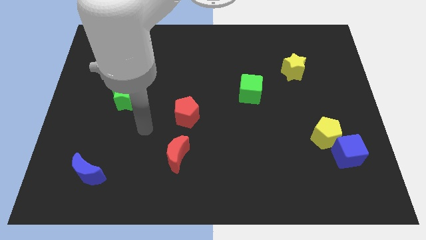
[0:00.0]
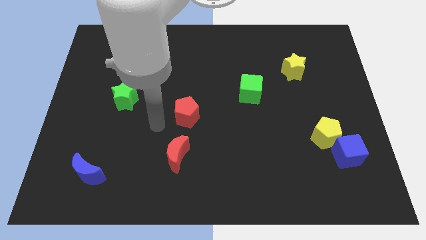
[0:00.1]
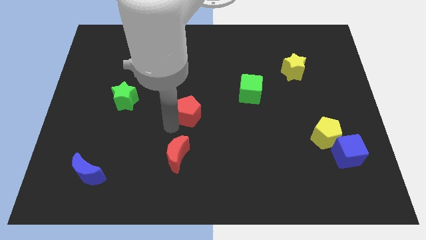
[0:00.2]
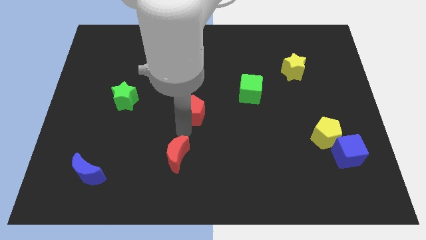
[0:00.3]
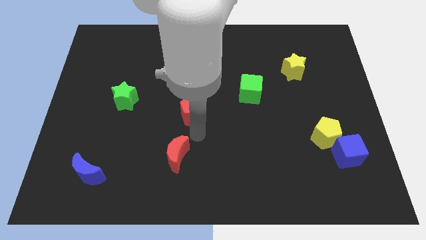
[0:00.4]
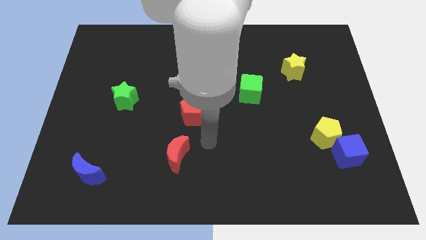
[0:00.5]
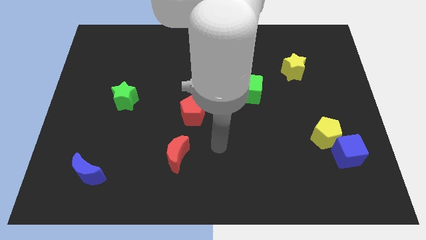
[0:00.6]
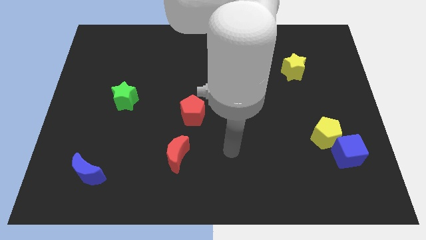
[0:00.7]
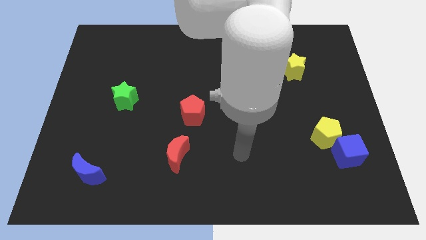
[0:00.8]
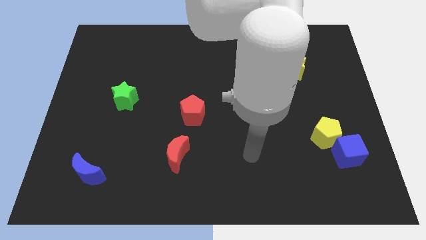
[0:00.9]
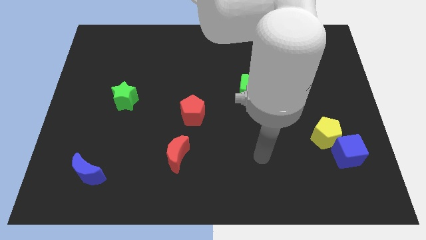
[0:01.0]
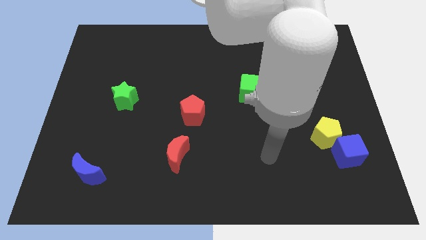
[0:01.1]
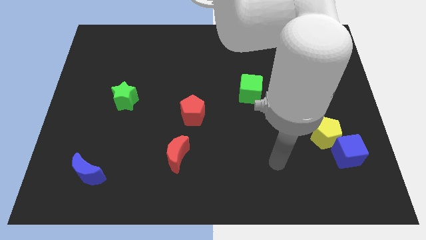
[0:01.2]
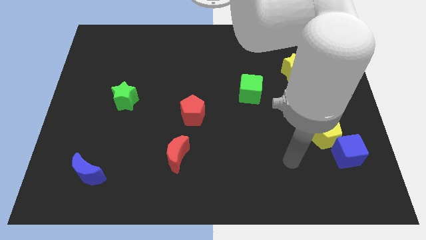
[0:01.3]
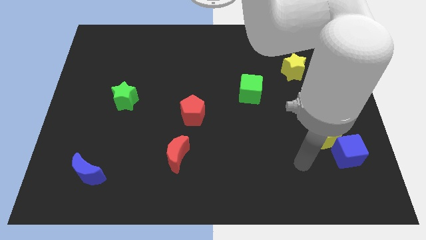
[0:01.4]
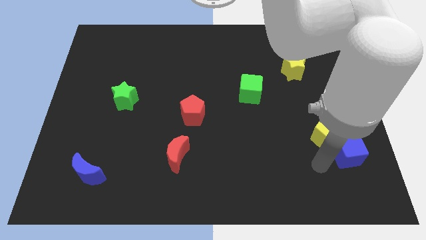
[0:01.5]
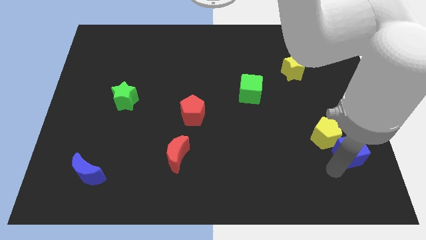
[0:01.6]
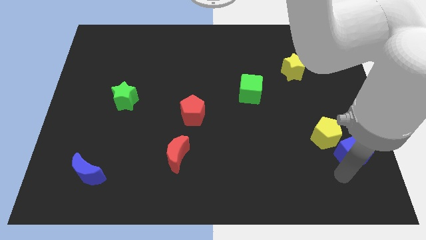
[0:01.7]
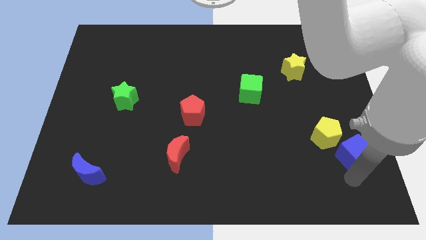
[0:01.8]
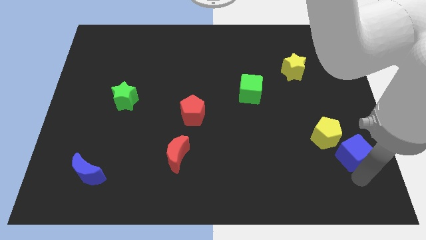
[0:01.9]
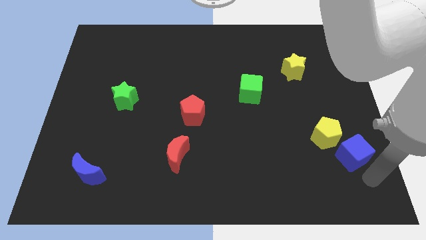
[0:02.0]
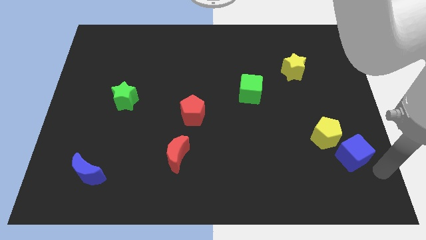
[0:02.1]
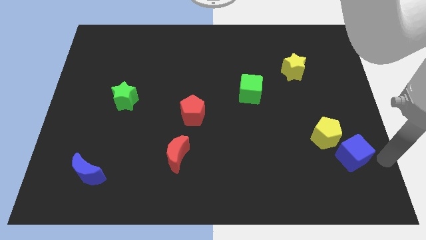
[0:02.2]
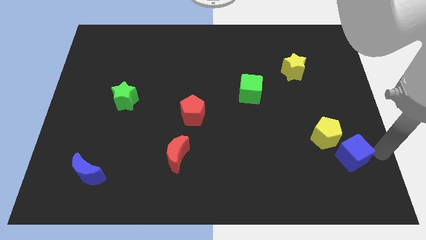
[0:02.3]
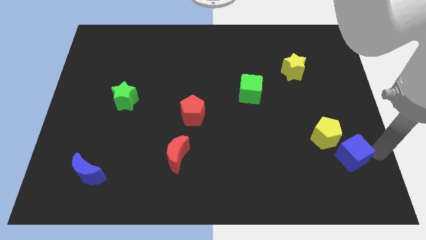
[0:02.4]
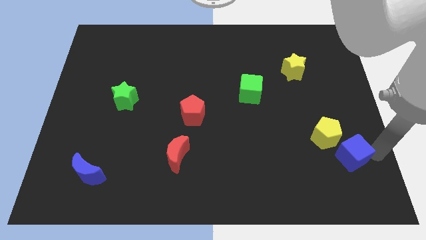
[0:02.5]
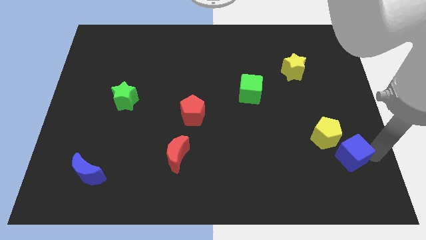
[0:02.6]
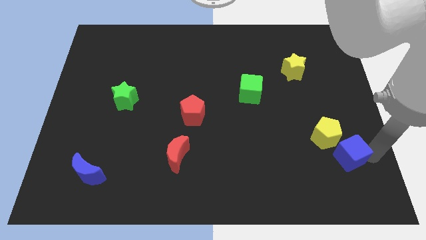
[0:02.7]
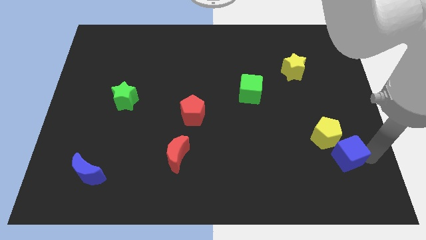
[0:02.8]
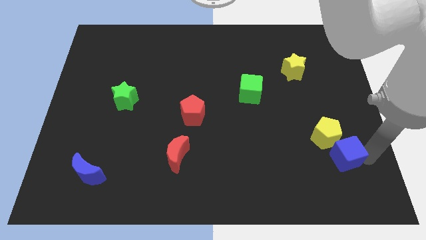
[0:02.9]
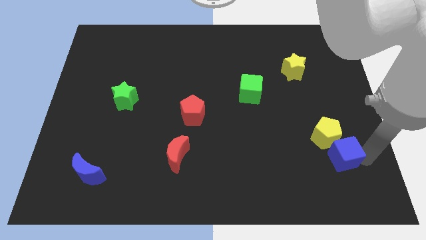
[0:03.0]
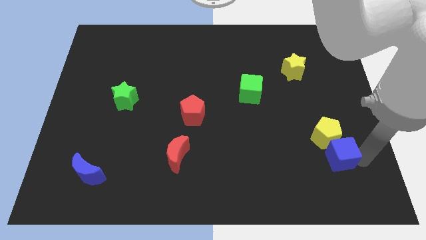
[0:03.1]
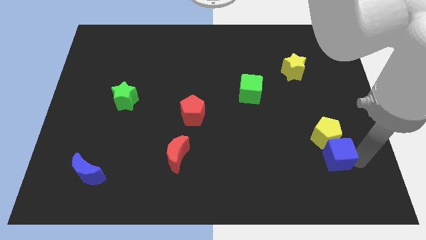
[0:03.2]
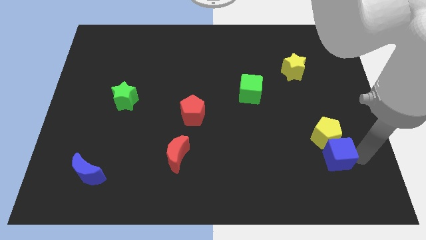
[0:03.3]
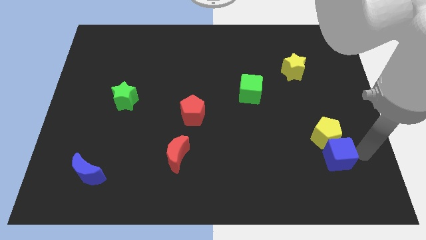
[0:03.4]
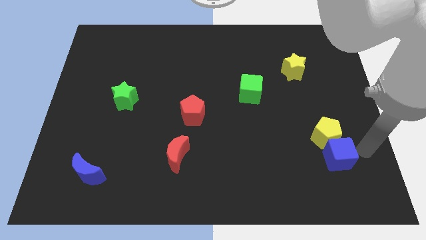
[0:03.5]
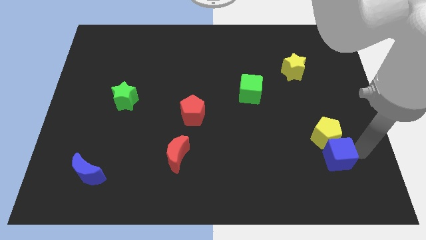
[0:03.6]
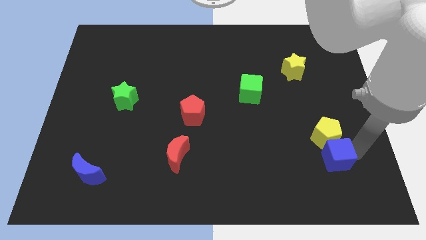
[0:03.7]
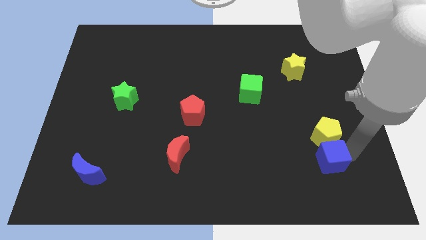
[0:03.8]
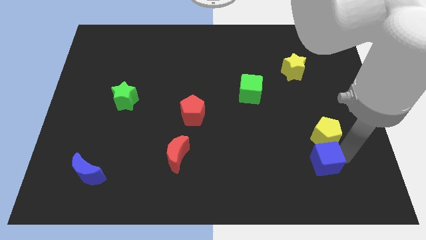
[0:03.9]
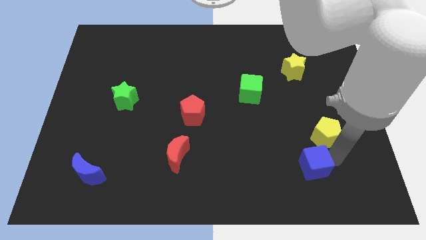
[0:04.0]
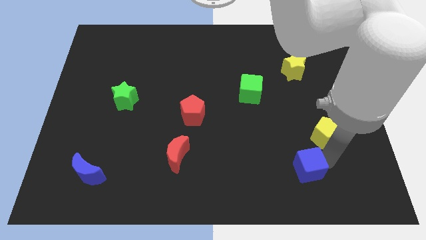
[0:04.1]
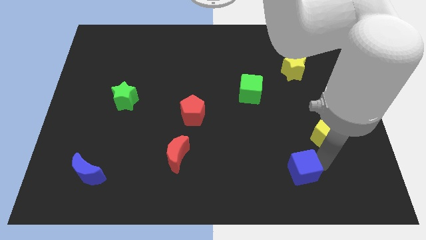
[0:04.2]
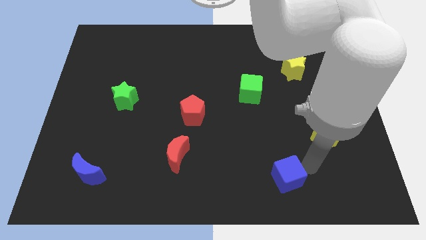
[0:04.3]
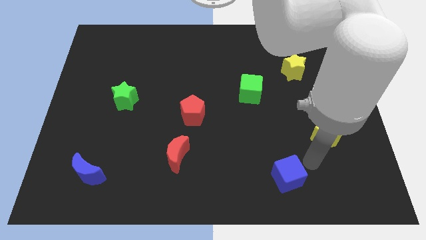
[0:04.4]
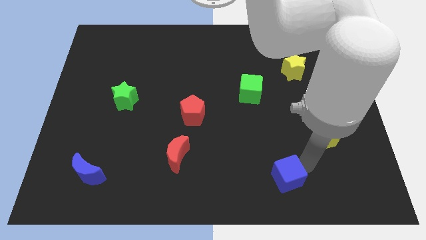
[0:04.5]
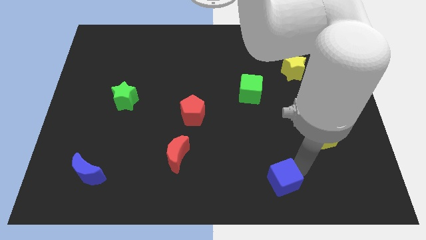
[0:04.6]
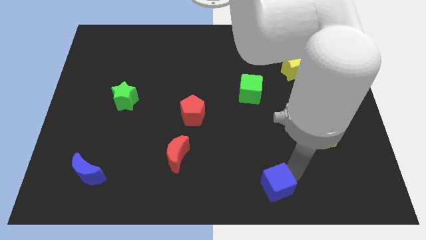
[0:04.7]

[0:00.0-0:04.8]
push the blue cube to the bottom side

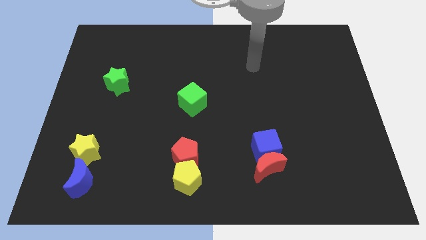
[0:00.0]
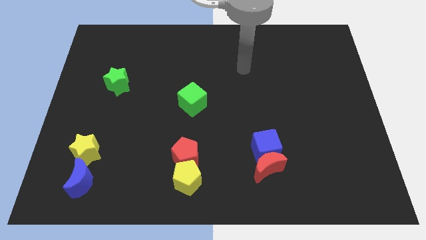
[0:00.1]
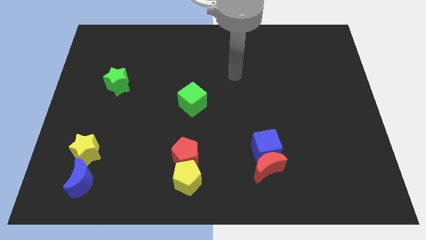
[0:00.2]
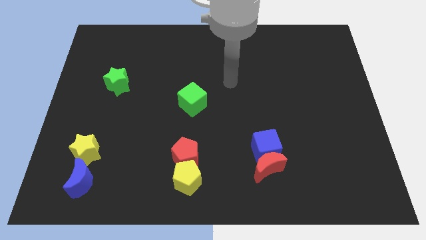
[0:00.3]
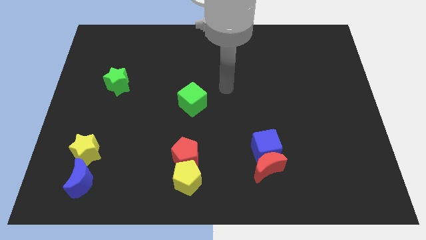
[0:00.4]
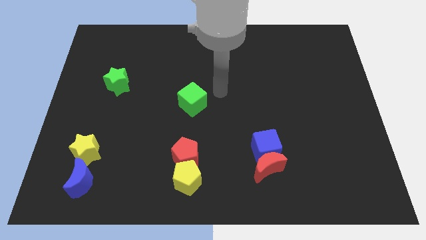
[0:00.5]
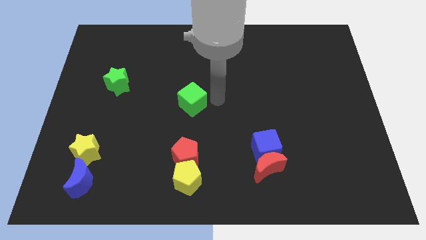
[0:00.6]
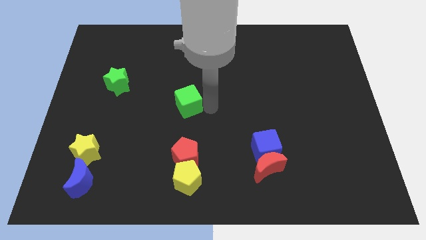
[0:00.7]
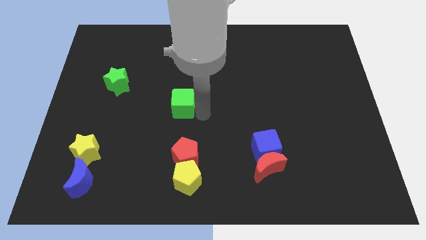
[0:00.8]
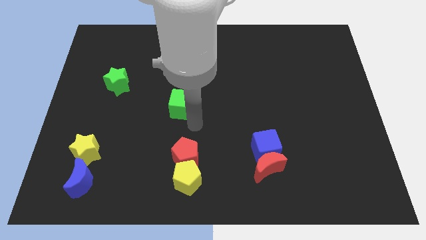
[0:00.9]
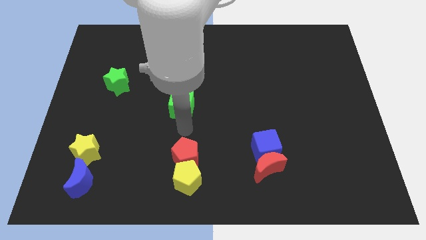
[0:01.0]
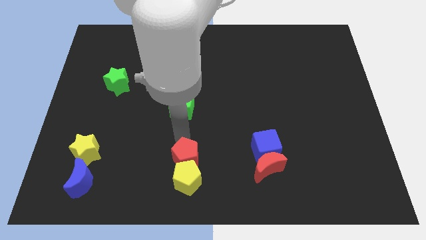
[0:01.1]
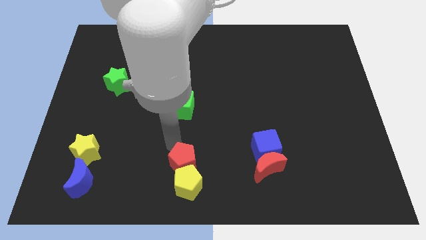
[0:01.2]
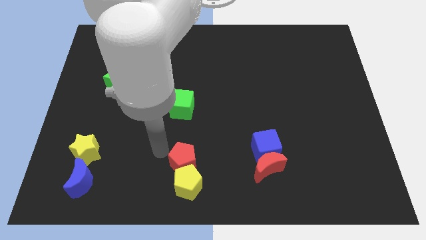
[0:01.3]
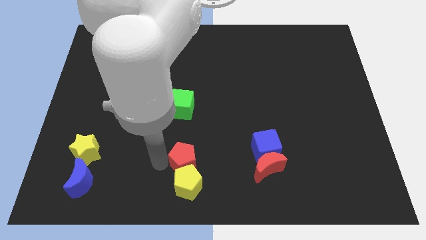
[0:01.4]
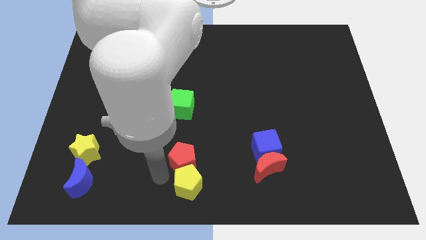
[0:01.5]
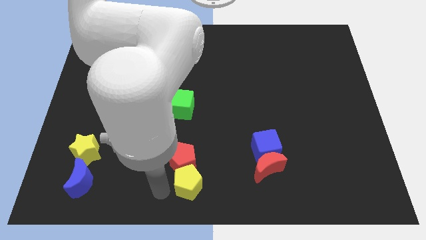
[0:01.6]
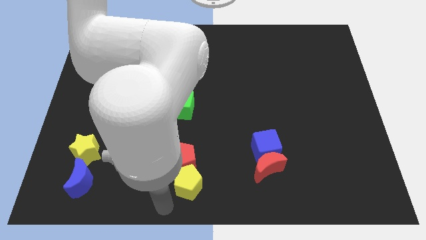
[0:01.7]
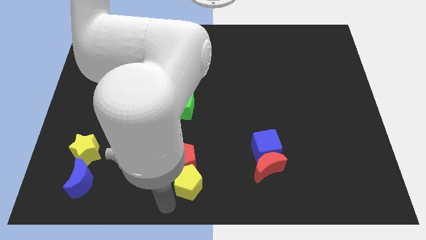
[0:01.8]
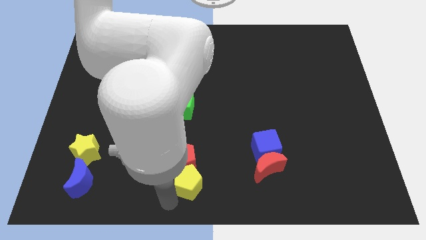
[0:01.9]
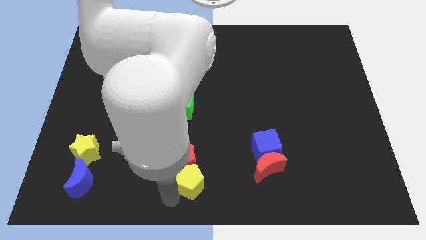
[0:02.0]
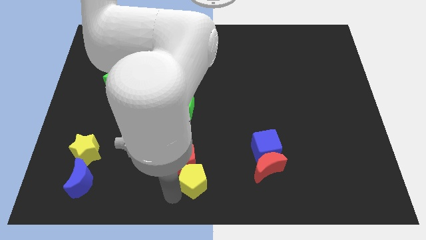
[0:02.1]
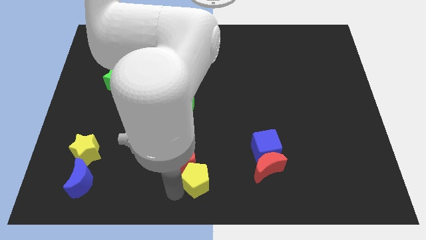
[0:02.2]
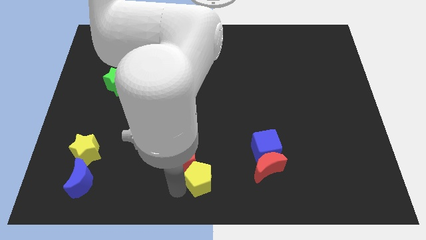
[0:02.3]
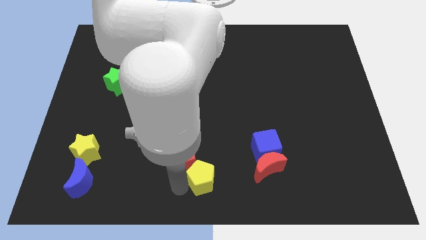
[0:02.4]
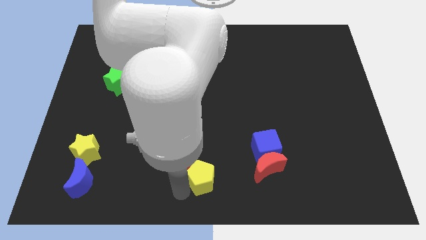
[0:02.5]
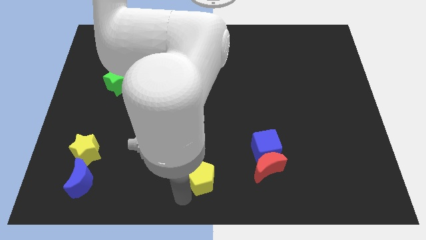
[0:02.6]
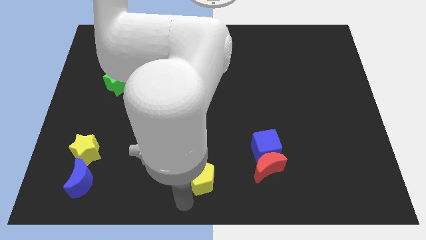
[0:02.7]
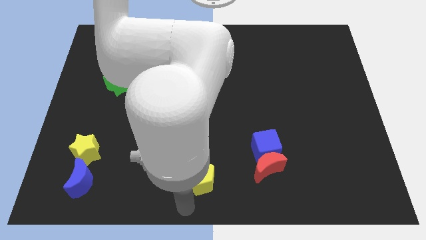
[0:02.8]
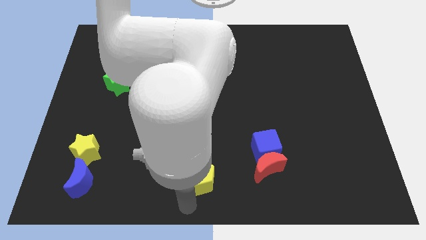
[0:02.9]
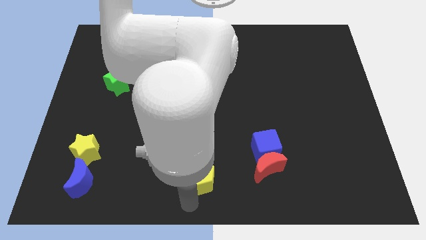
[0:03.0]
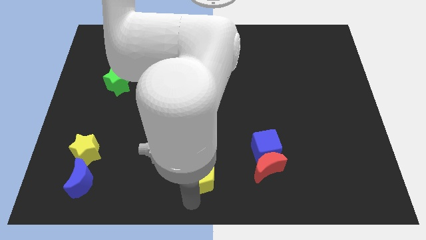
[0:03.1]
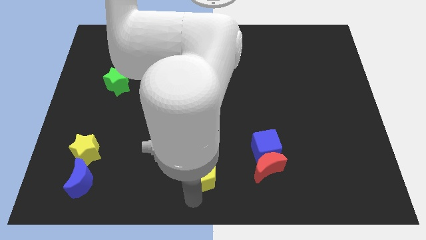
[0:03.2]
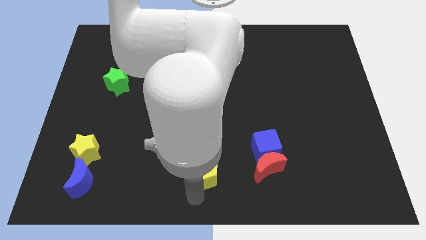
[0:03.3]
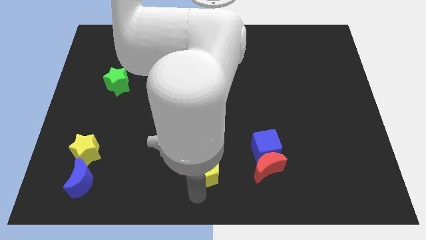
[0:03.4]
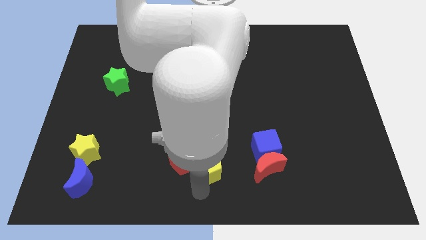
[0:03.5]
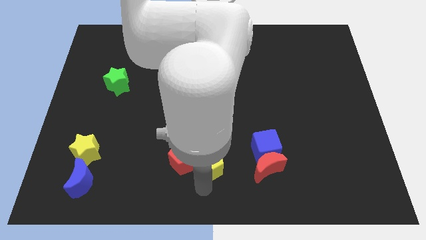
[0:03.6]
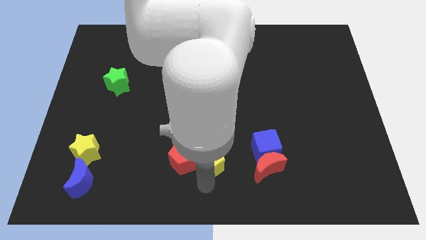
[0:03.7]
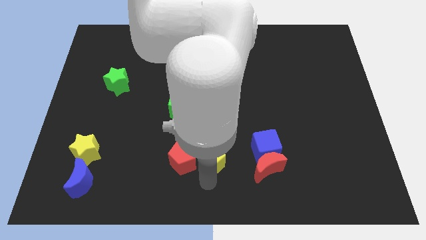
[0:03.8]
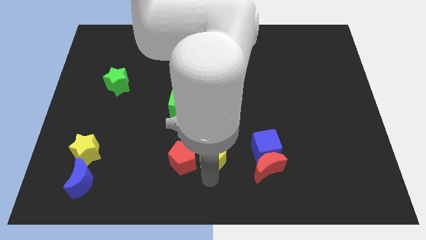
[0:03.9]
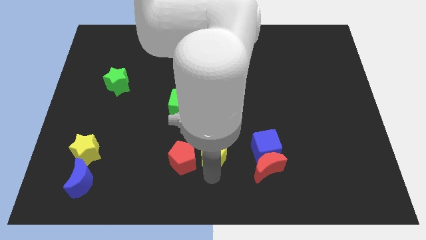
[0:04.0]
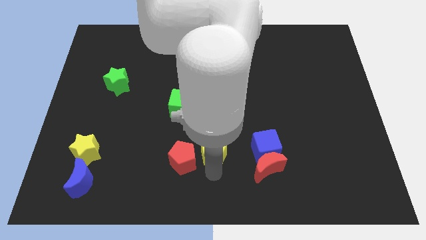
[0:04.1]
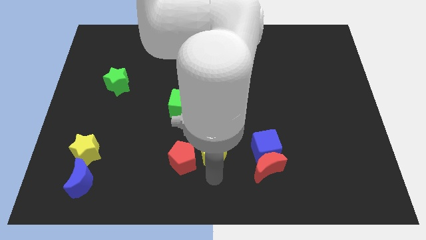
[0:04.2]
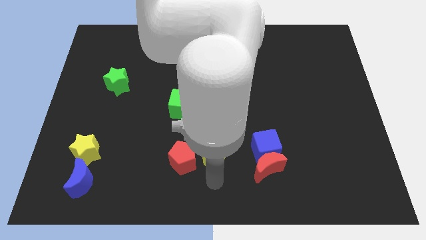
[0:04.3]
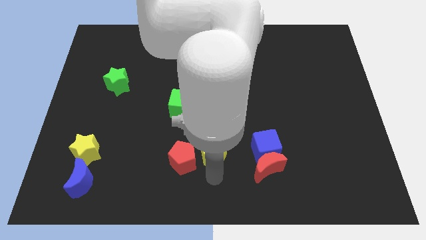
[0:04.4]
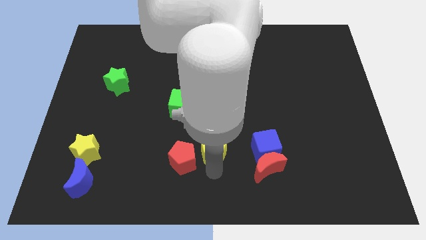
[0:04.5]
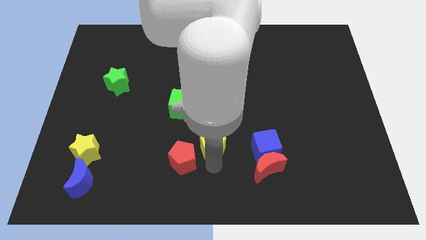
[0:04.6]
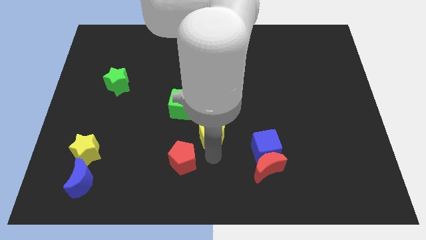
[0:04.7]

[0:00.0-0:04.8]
put the yellow pentagon to the center of the board
